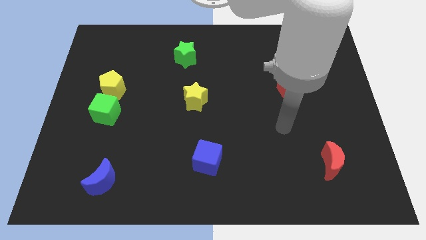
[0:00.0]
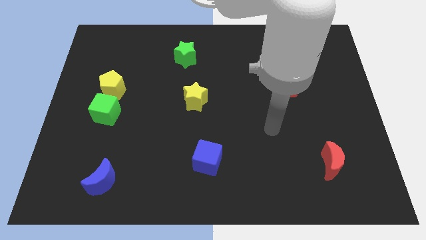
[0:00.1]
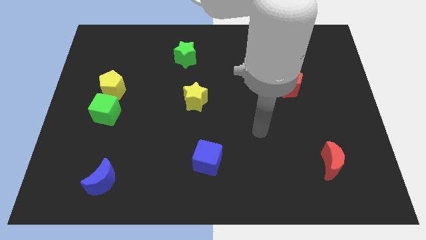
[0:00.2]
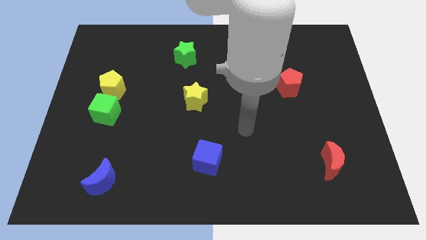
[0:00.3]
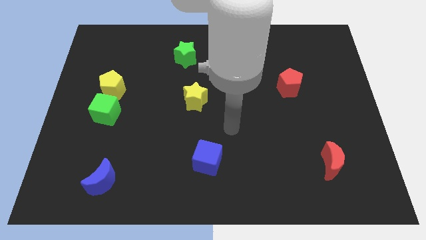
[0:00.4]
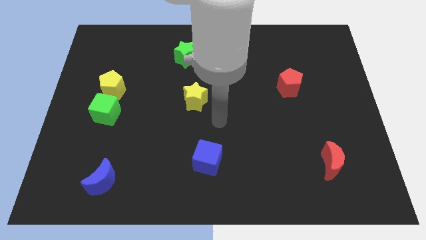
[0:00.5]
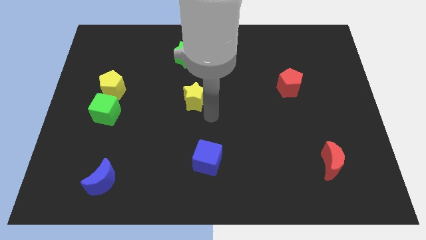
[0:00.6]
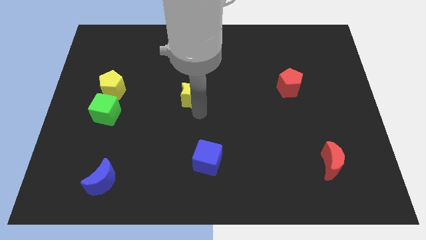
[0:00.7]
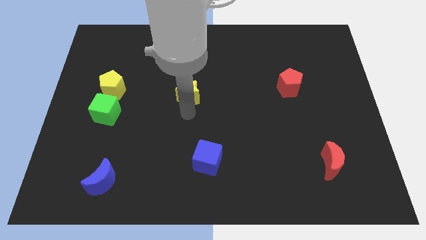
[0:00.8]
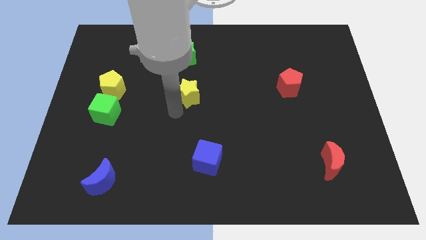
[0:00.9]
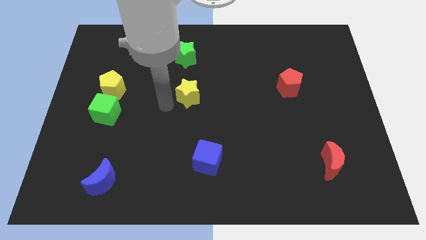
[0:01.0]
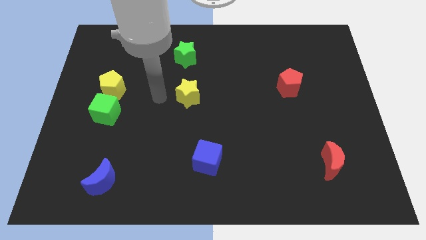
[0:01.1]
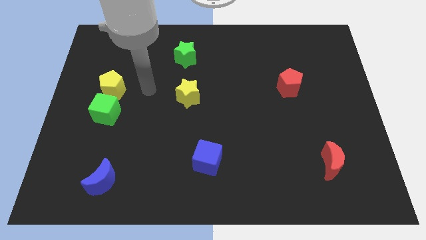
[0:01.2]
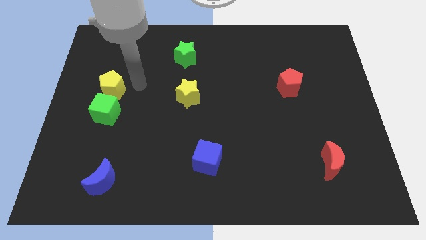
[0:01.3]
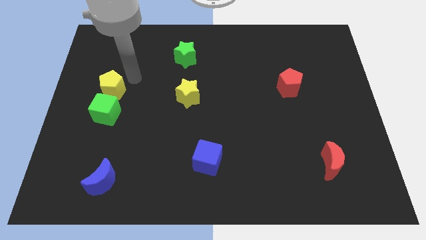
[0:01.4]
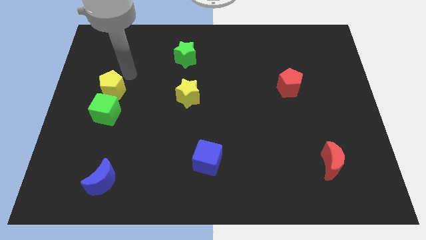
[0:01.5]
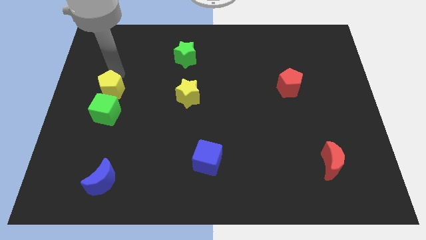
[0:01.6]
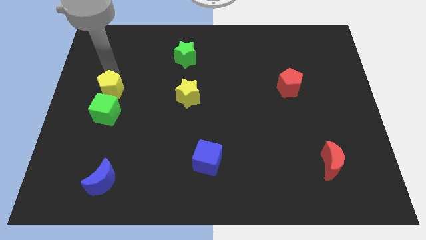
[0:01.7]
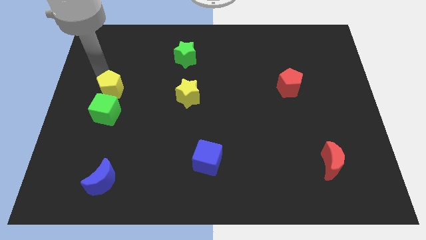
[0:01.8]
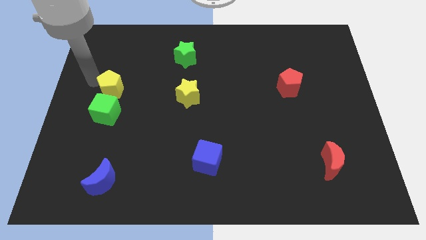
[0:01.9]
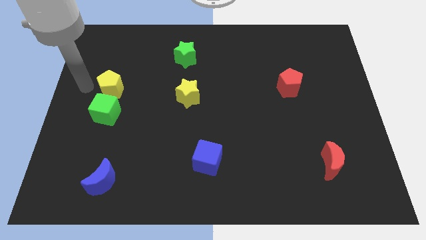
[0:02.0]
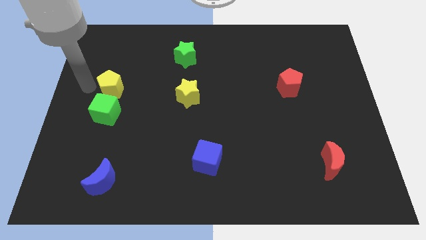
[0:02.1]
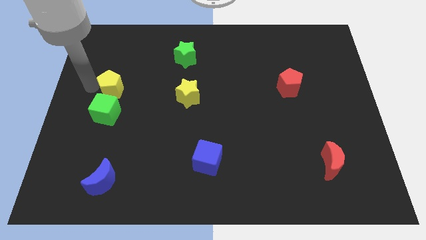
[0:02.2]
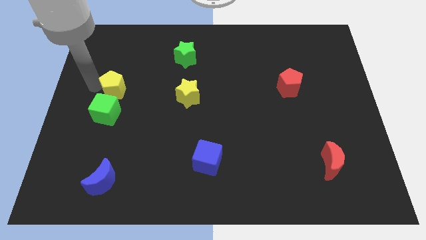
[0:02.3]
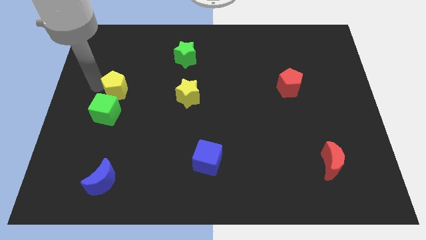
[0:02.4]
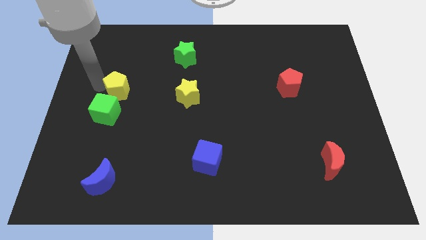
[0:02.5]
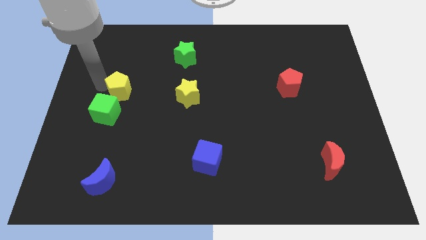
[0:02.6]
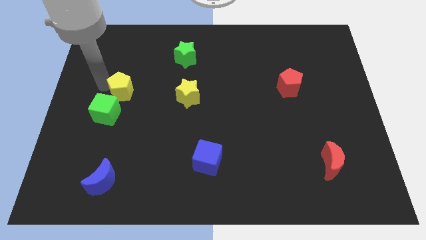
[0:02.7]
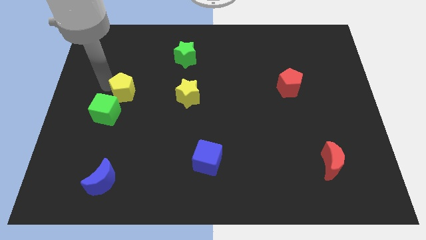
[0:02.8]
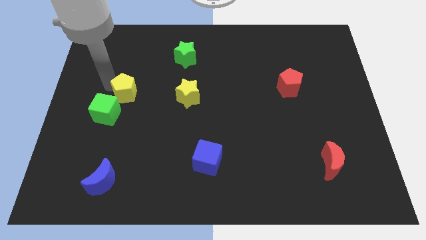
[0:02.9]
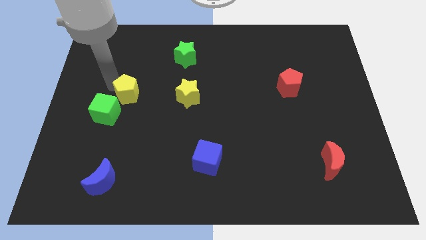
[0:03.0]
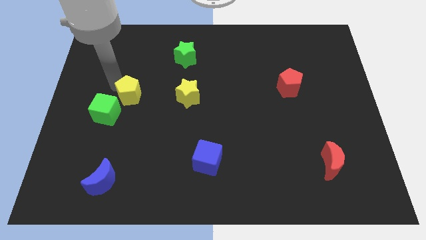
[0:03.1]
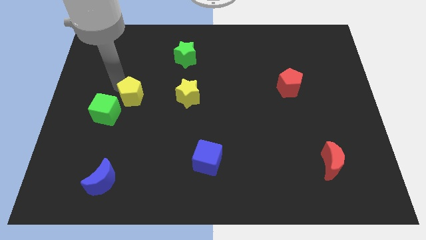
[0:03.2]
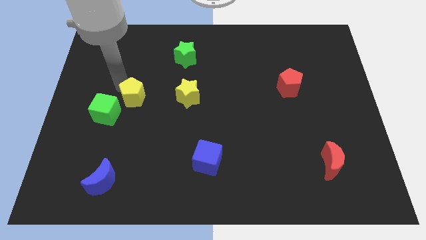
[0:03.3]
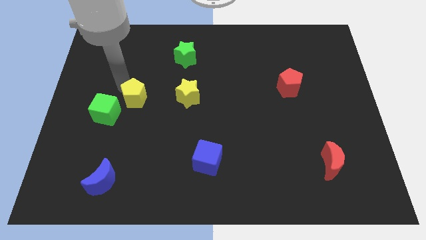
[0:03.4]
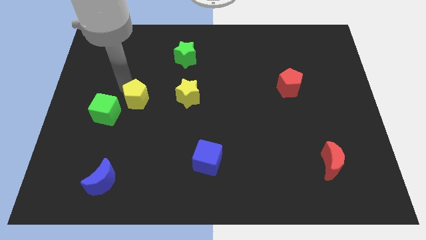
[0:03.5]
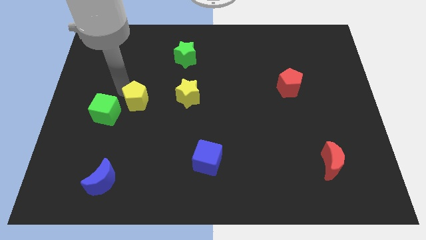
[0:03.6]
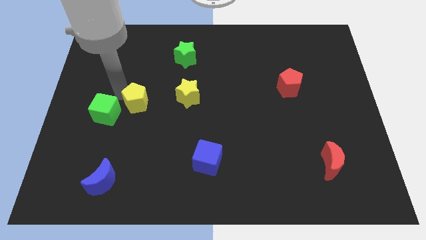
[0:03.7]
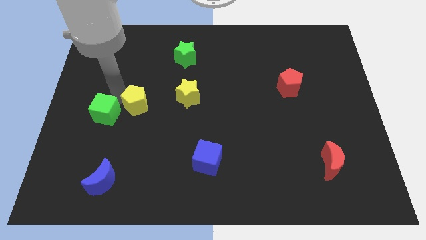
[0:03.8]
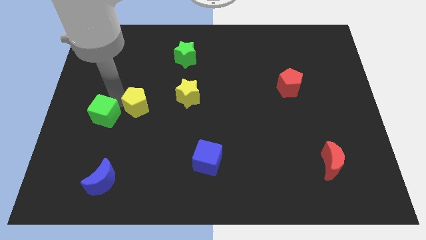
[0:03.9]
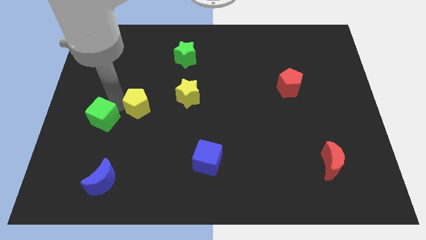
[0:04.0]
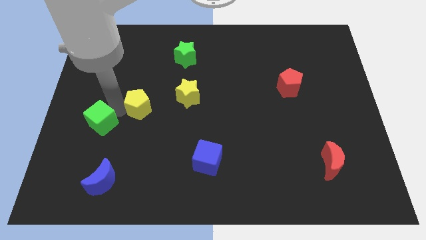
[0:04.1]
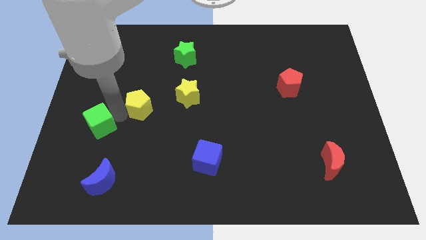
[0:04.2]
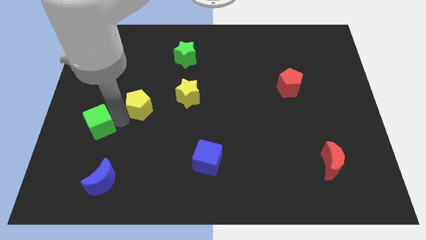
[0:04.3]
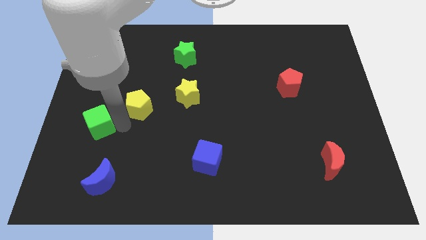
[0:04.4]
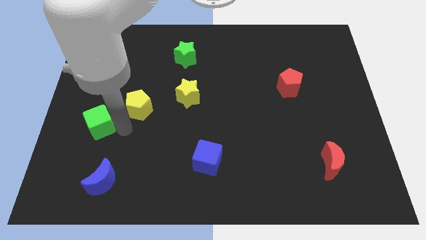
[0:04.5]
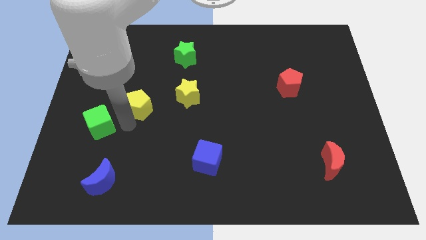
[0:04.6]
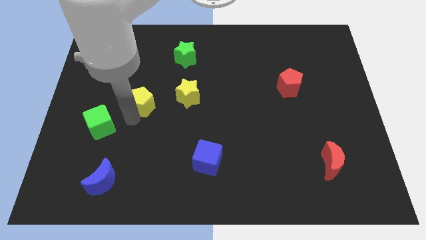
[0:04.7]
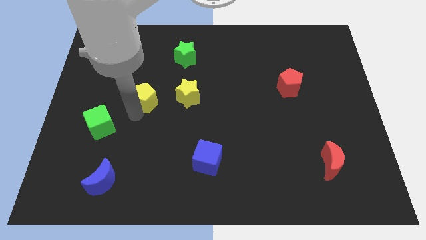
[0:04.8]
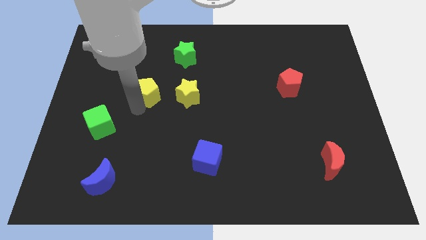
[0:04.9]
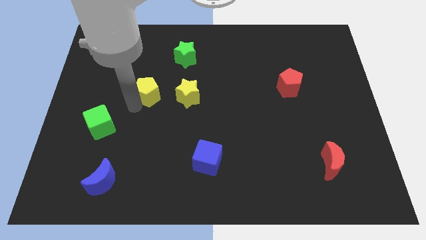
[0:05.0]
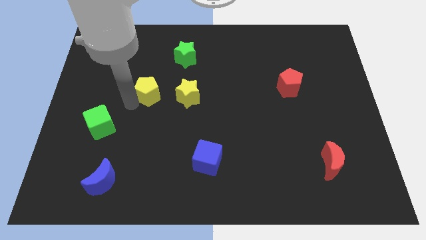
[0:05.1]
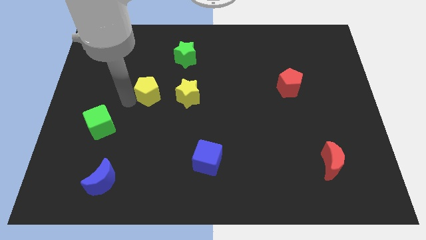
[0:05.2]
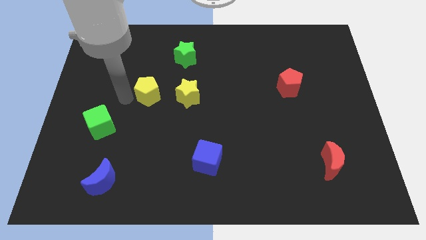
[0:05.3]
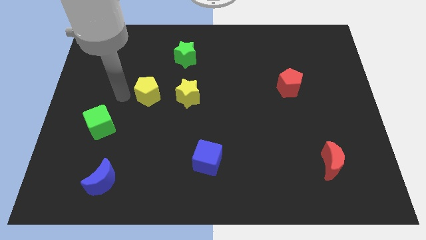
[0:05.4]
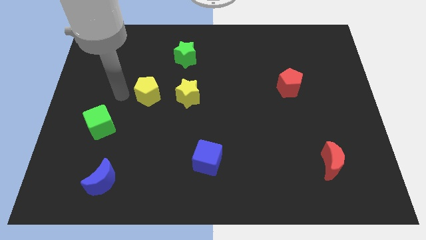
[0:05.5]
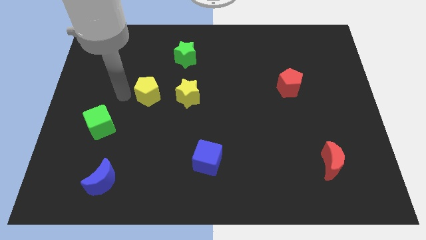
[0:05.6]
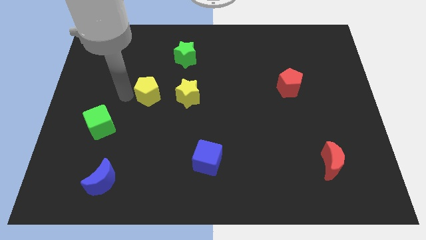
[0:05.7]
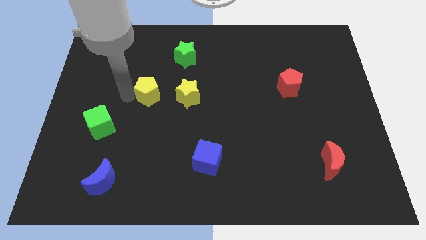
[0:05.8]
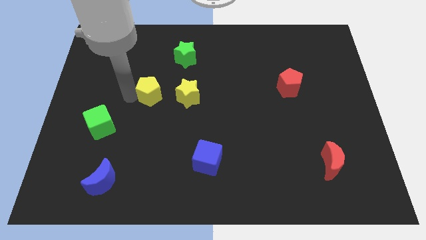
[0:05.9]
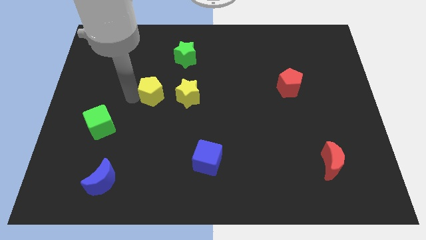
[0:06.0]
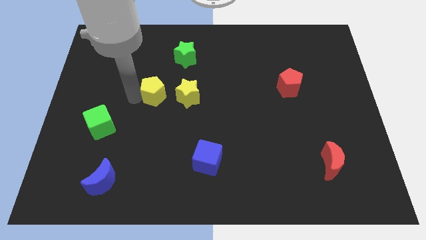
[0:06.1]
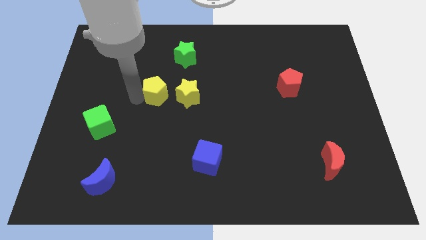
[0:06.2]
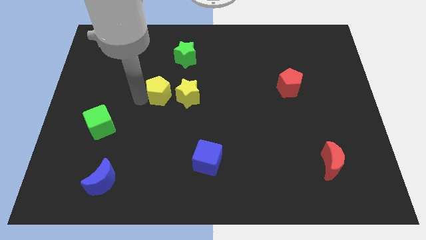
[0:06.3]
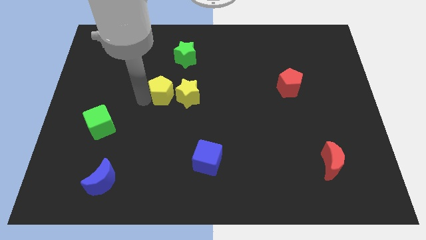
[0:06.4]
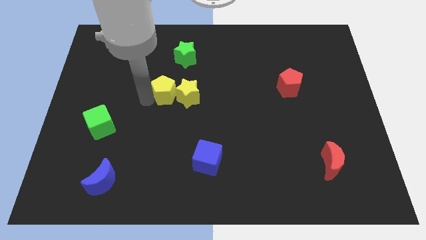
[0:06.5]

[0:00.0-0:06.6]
push the yellow pentagon towards the yellow star

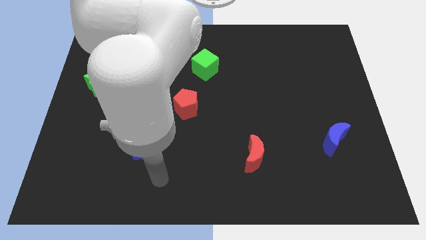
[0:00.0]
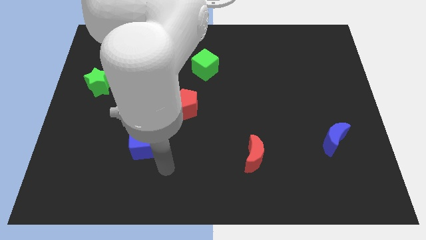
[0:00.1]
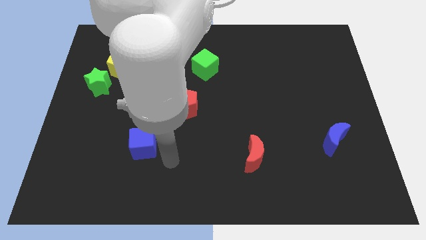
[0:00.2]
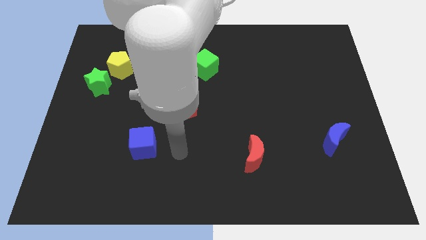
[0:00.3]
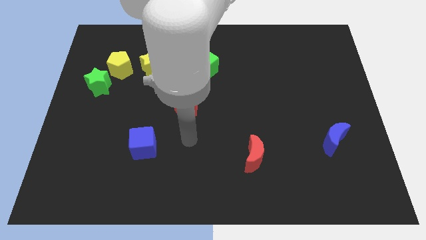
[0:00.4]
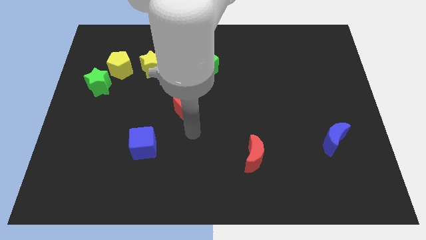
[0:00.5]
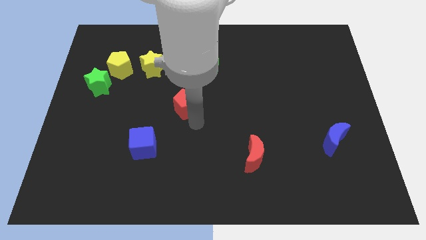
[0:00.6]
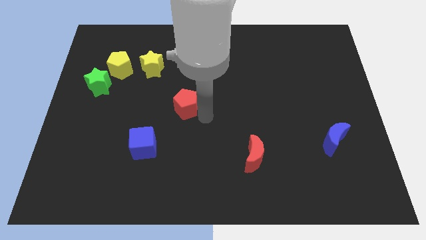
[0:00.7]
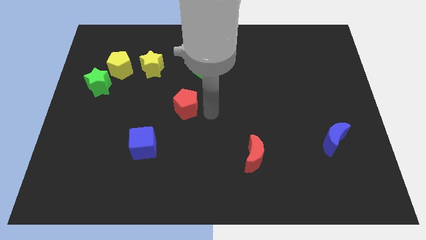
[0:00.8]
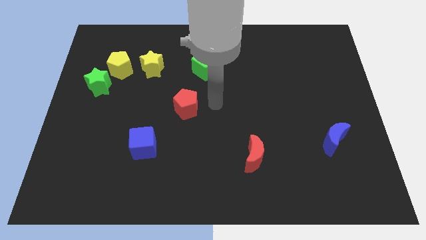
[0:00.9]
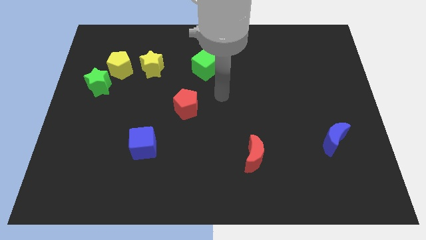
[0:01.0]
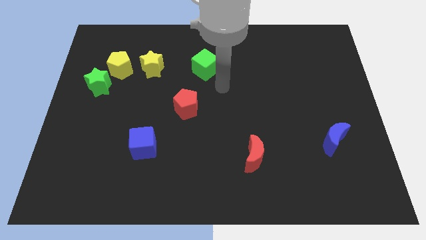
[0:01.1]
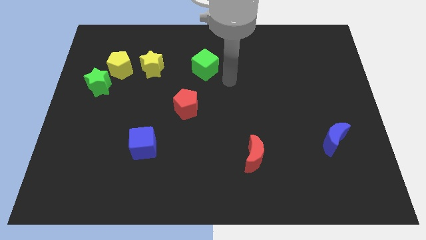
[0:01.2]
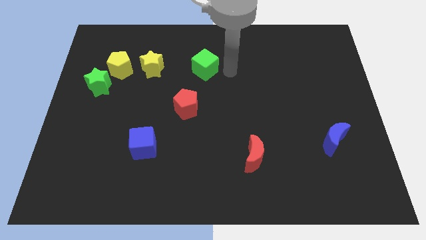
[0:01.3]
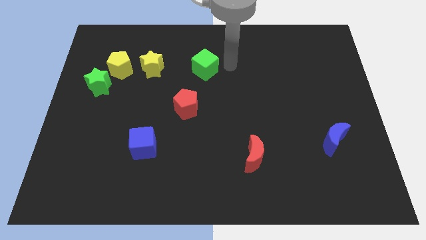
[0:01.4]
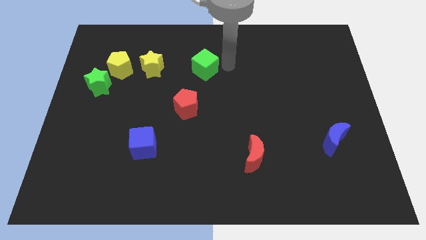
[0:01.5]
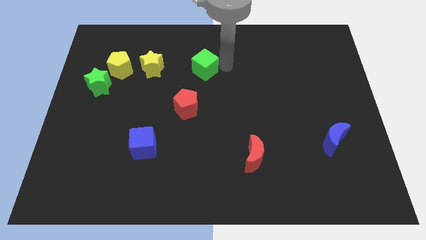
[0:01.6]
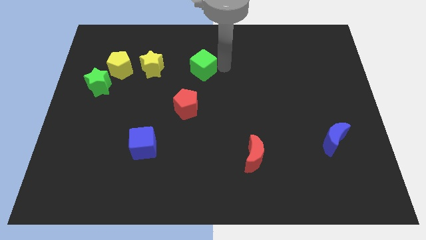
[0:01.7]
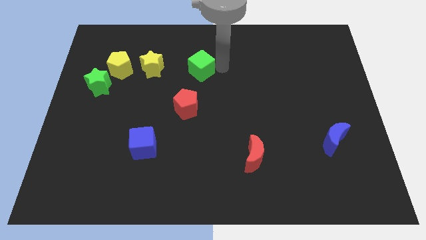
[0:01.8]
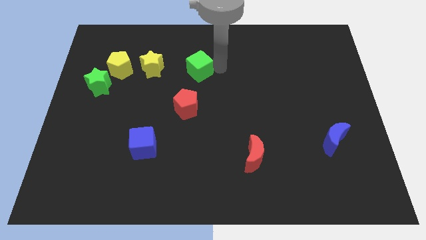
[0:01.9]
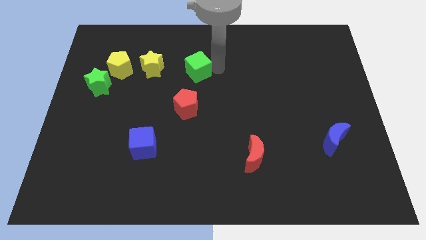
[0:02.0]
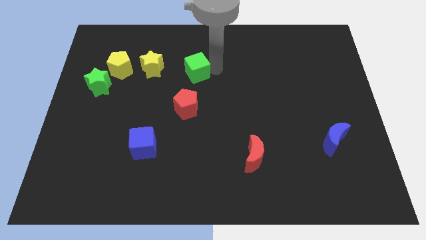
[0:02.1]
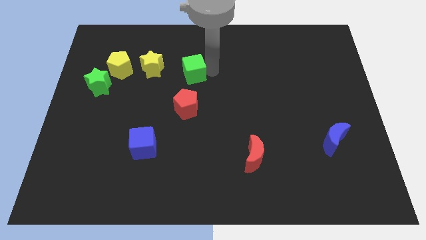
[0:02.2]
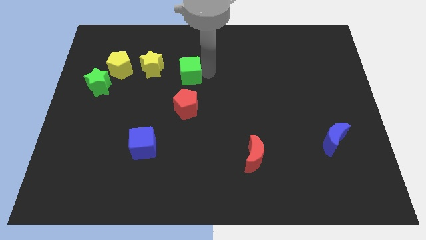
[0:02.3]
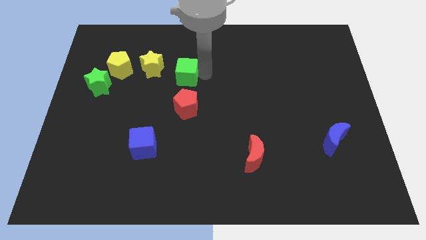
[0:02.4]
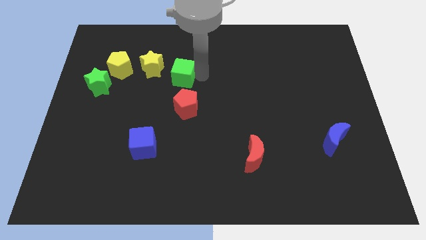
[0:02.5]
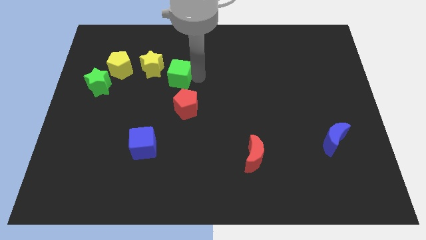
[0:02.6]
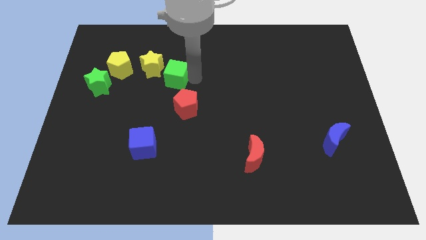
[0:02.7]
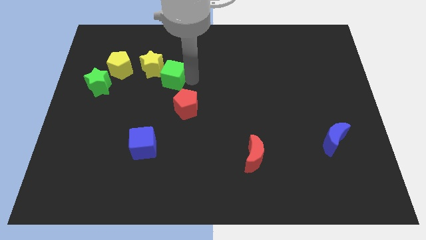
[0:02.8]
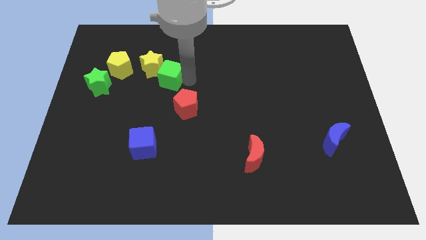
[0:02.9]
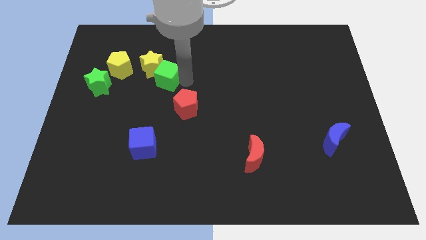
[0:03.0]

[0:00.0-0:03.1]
push the green cube next to the yellow star
